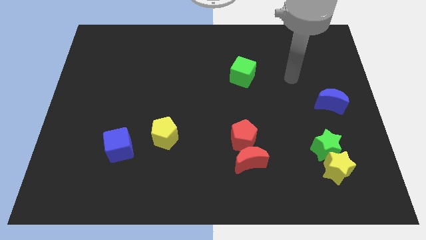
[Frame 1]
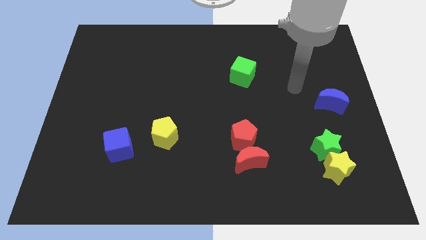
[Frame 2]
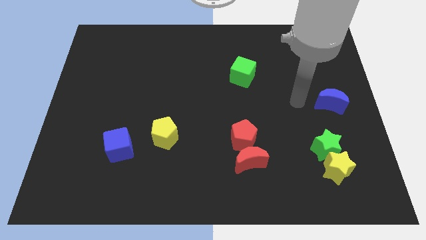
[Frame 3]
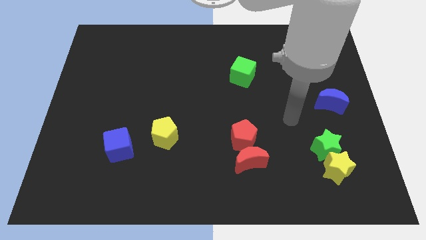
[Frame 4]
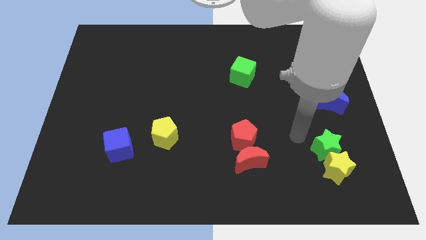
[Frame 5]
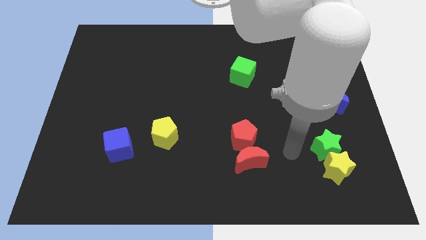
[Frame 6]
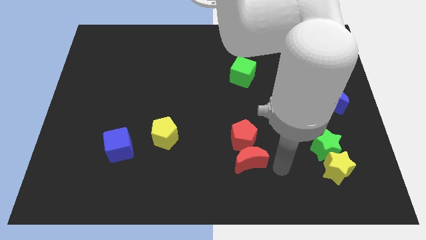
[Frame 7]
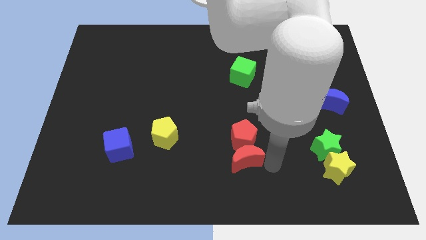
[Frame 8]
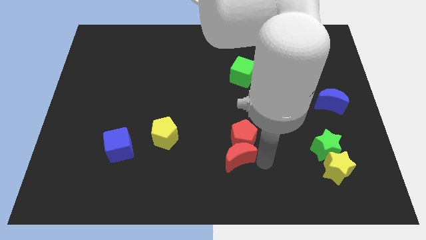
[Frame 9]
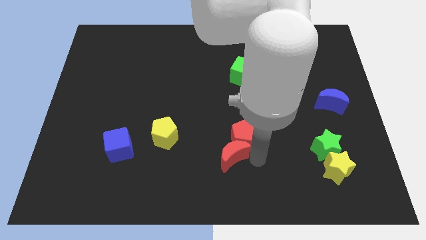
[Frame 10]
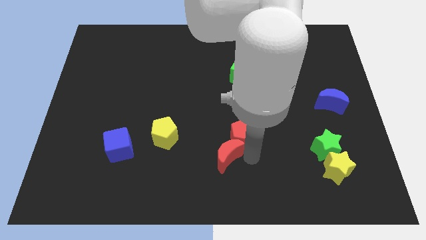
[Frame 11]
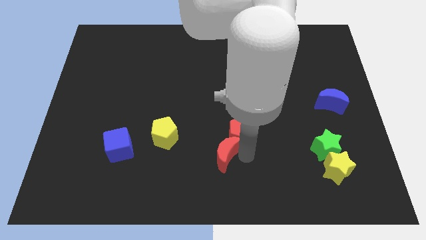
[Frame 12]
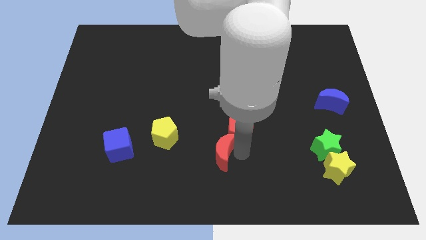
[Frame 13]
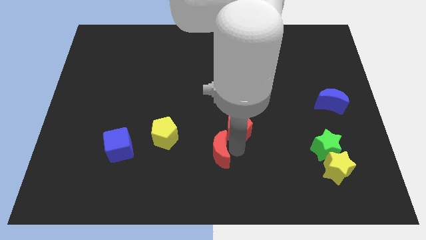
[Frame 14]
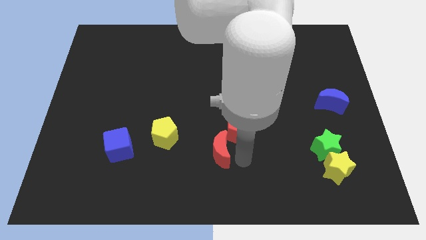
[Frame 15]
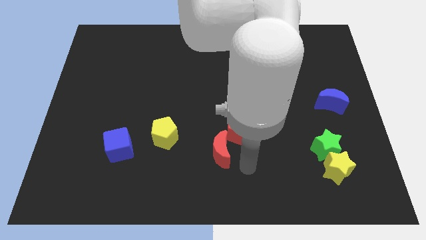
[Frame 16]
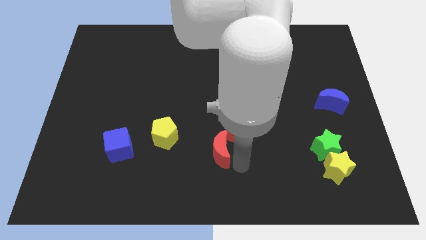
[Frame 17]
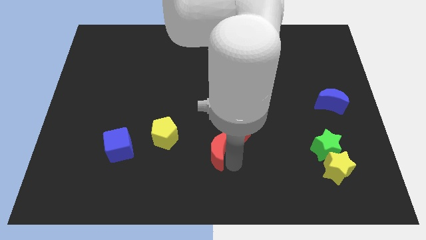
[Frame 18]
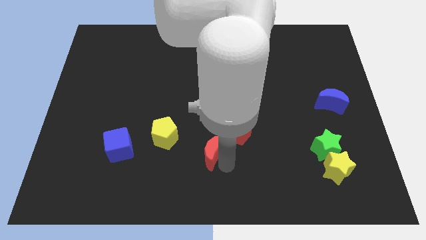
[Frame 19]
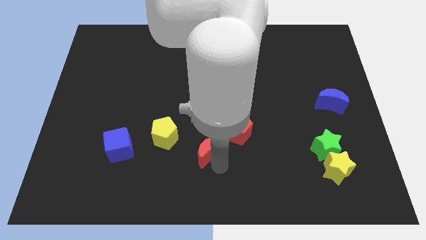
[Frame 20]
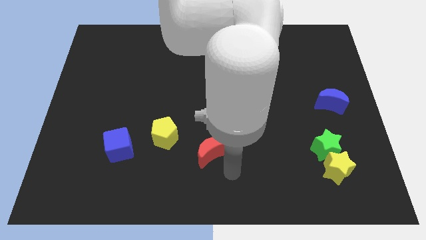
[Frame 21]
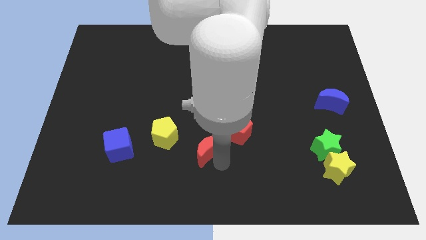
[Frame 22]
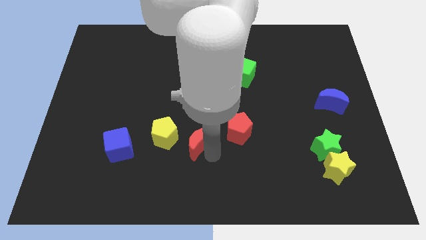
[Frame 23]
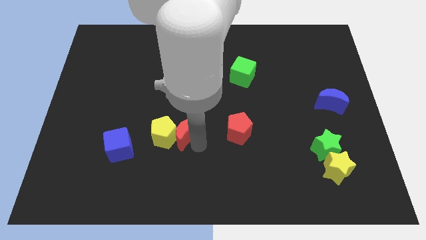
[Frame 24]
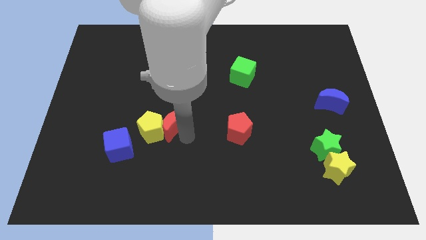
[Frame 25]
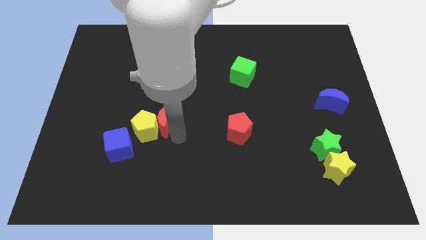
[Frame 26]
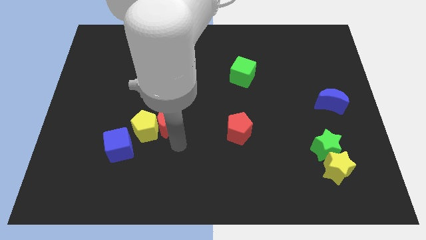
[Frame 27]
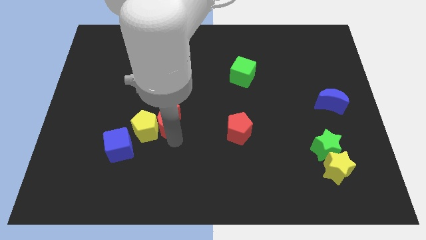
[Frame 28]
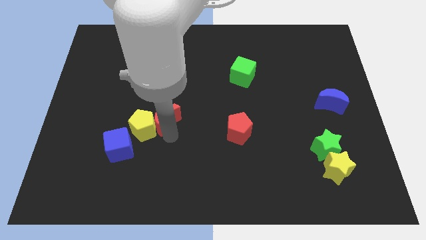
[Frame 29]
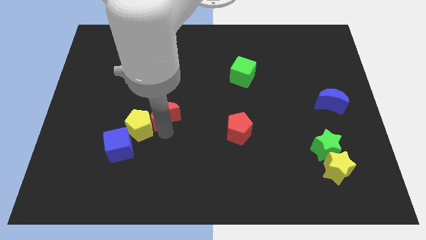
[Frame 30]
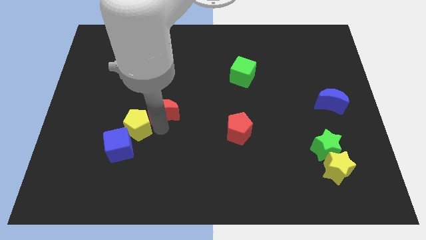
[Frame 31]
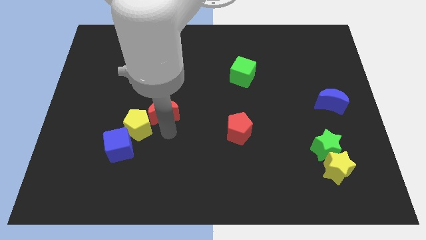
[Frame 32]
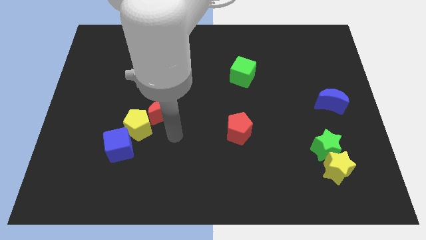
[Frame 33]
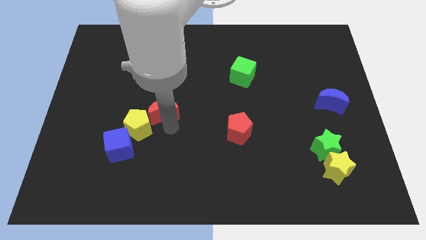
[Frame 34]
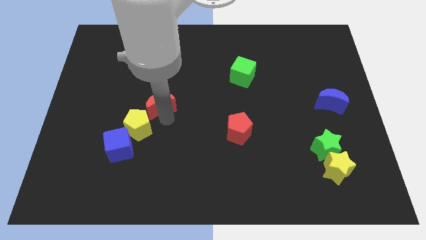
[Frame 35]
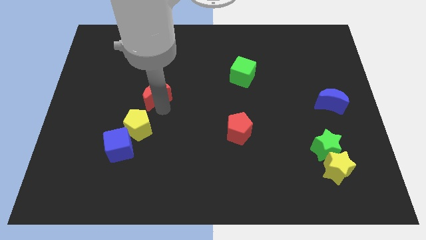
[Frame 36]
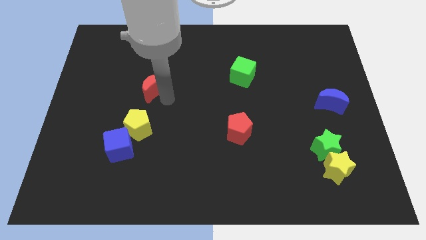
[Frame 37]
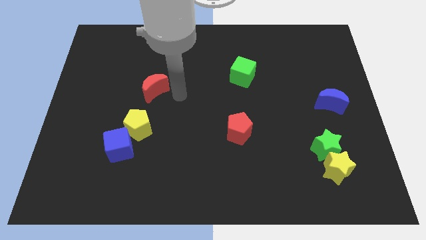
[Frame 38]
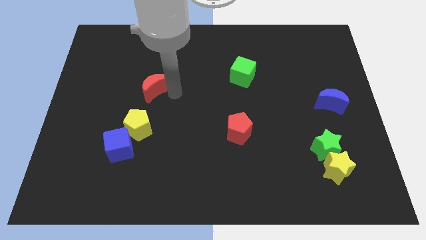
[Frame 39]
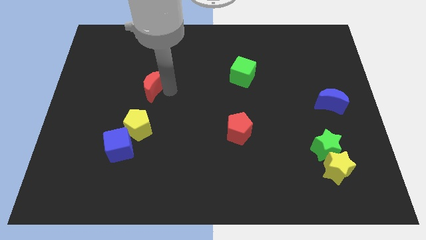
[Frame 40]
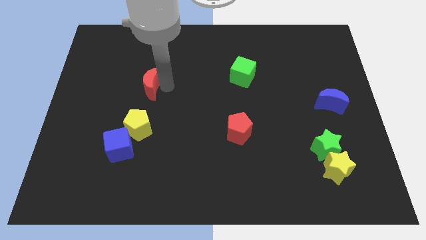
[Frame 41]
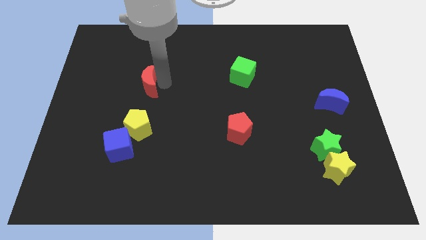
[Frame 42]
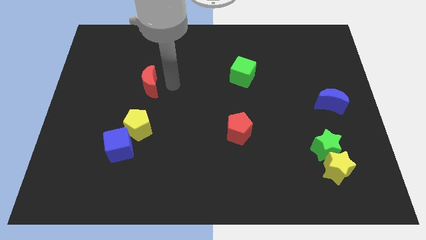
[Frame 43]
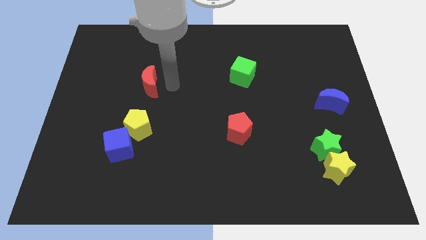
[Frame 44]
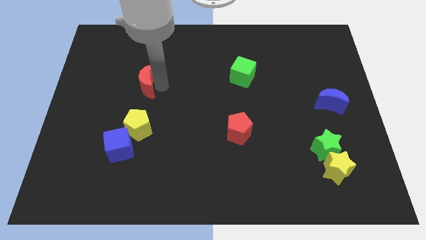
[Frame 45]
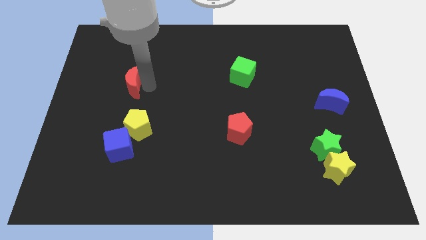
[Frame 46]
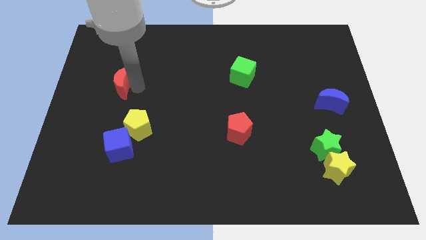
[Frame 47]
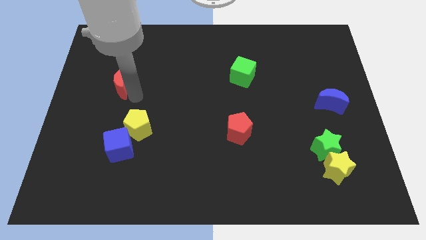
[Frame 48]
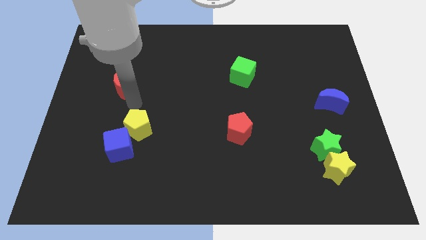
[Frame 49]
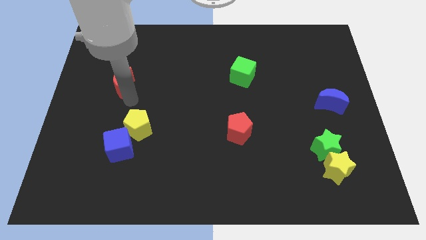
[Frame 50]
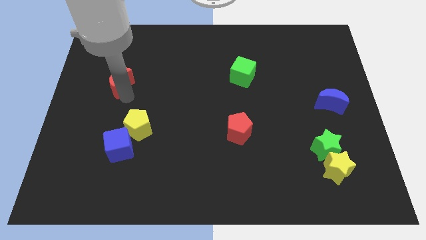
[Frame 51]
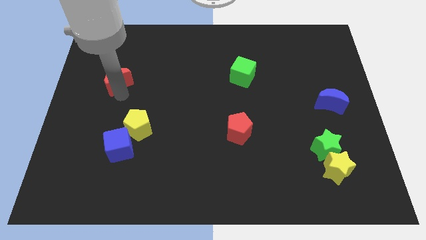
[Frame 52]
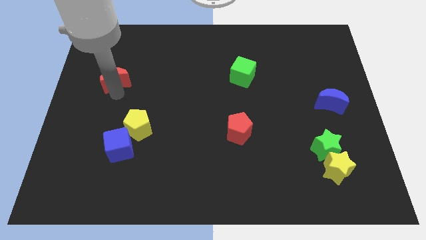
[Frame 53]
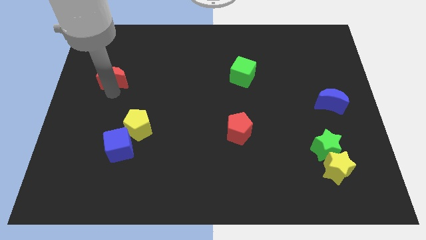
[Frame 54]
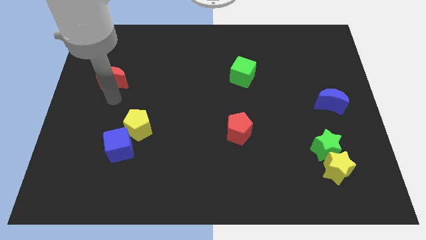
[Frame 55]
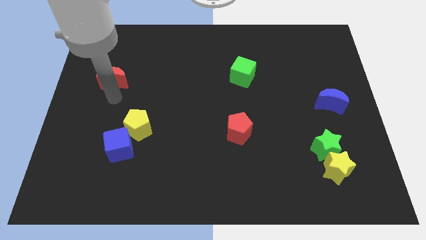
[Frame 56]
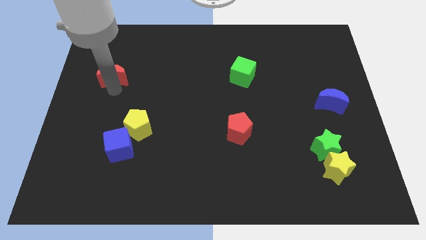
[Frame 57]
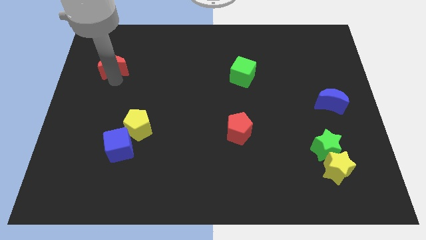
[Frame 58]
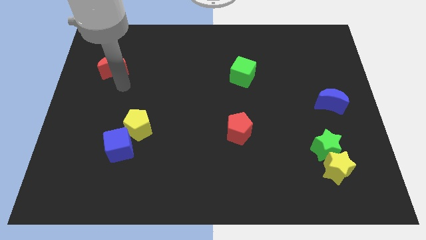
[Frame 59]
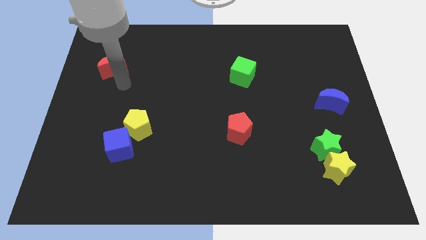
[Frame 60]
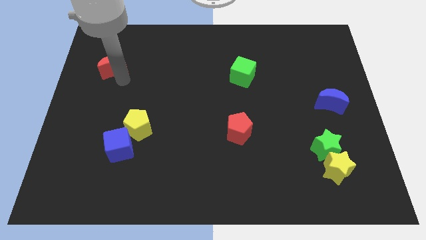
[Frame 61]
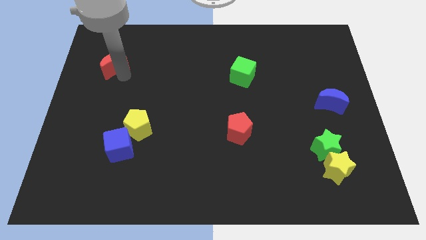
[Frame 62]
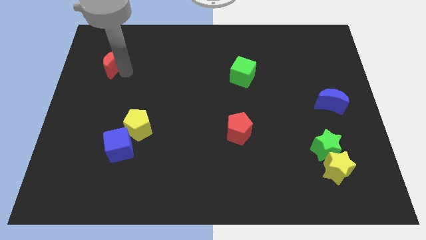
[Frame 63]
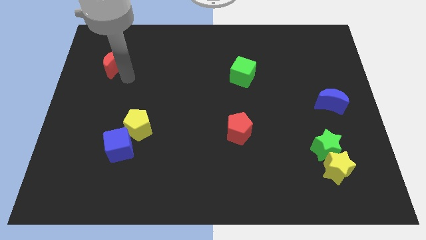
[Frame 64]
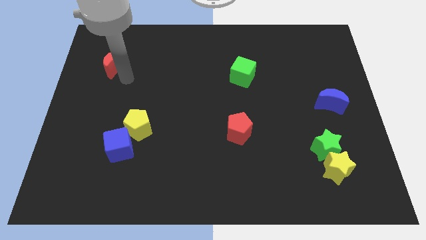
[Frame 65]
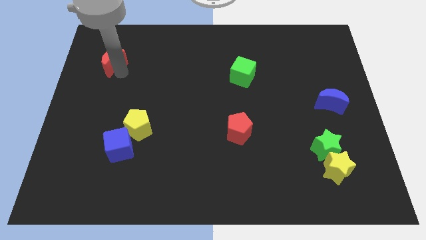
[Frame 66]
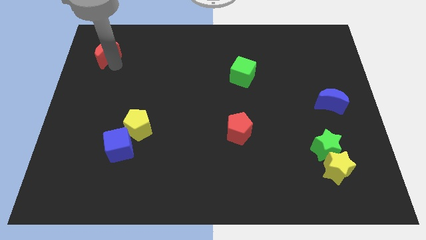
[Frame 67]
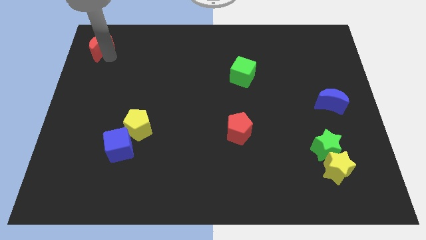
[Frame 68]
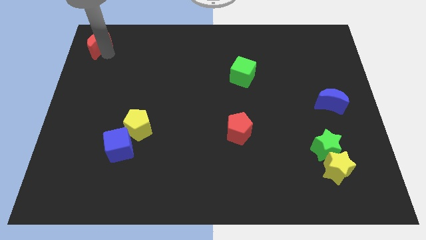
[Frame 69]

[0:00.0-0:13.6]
put the red moon to the top left of the board
